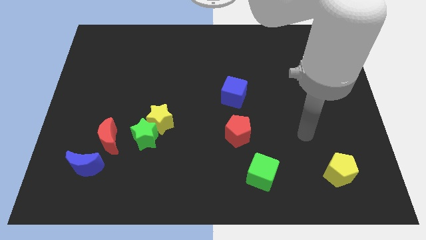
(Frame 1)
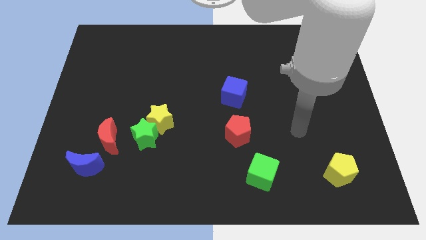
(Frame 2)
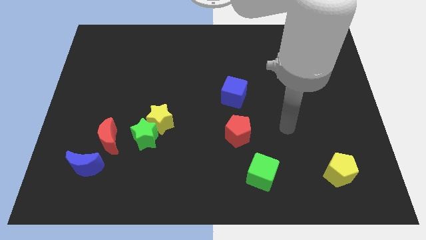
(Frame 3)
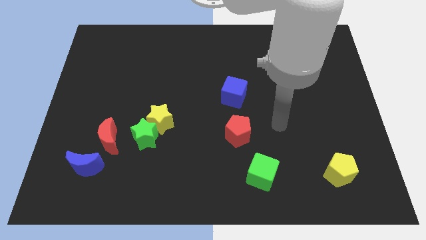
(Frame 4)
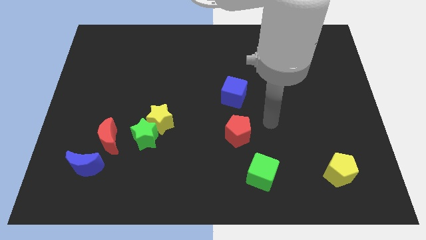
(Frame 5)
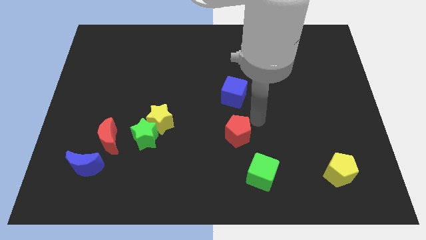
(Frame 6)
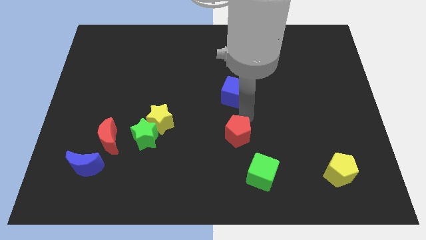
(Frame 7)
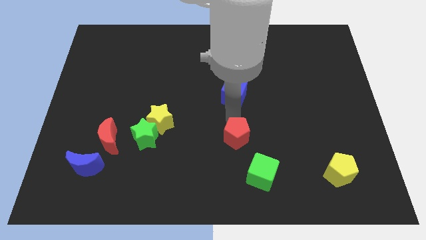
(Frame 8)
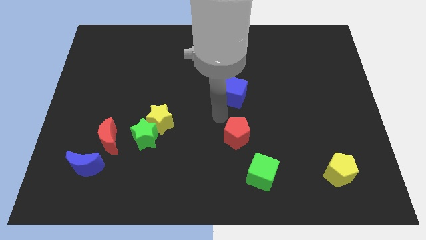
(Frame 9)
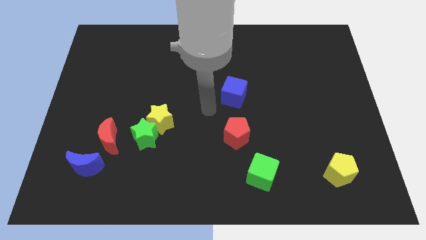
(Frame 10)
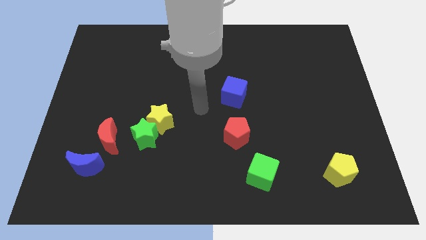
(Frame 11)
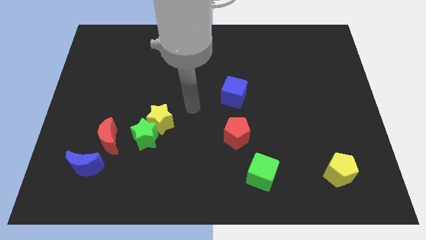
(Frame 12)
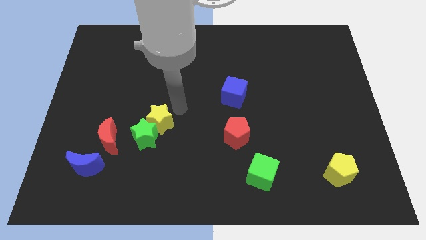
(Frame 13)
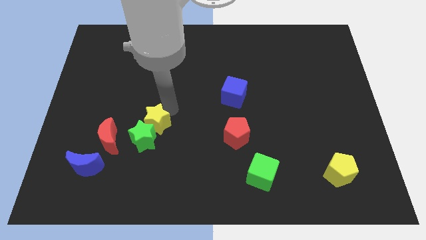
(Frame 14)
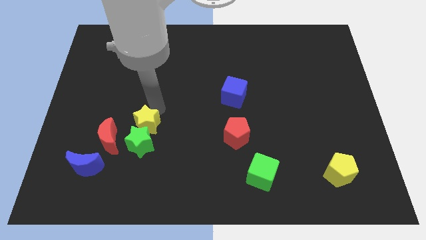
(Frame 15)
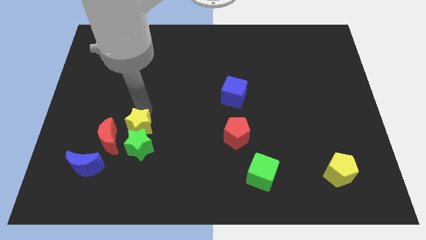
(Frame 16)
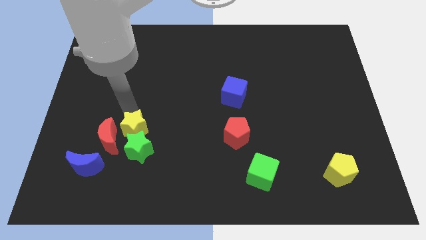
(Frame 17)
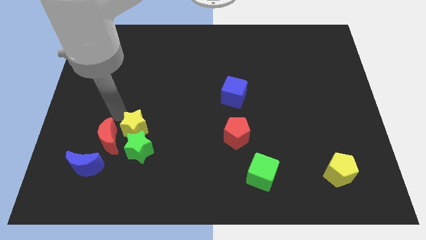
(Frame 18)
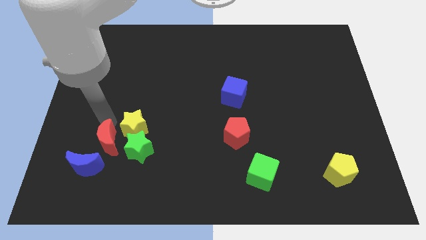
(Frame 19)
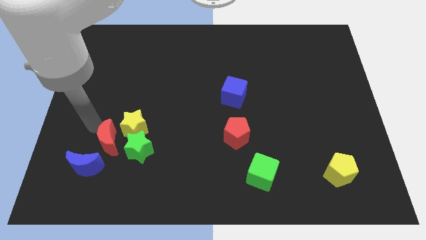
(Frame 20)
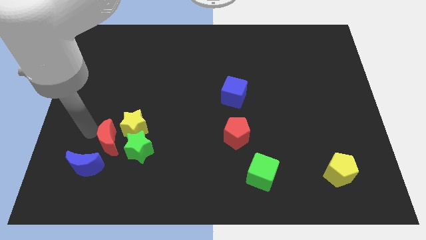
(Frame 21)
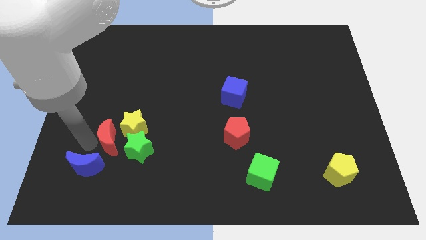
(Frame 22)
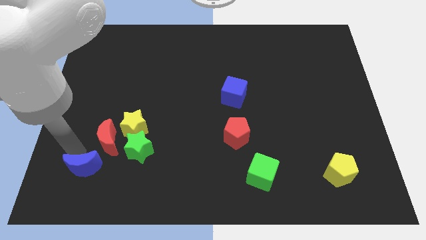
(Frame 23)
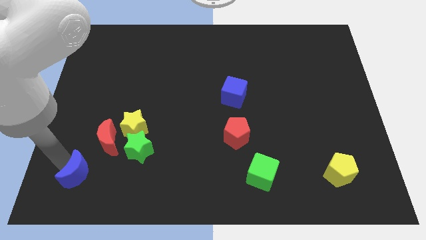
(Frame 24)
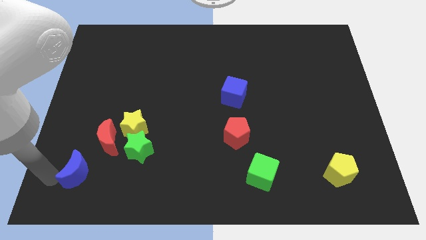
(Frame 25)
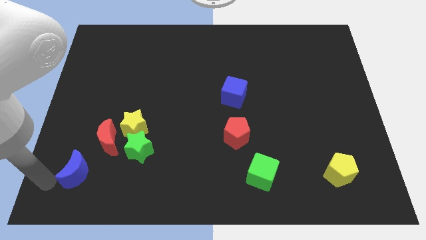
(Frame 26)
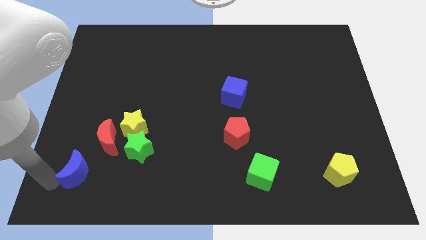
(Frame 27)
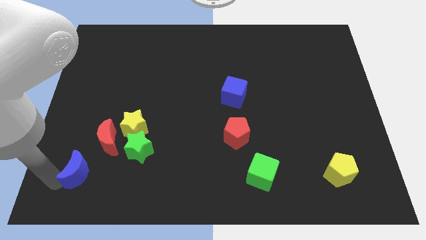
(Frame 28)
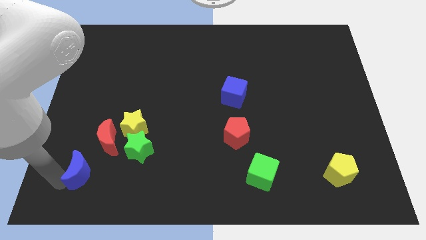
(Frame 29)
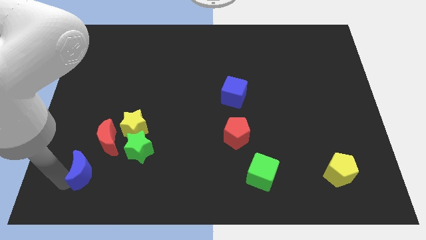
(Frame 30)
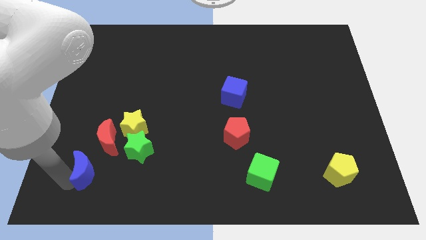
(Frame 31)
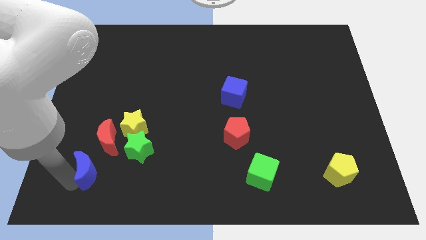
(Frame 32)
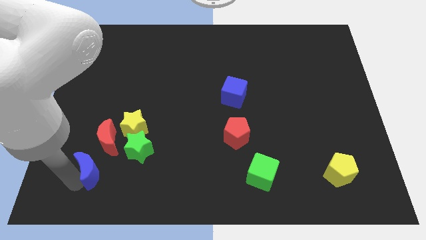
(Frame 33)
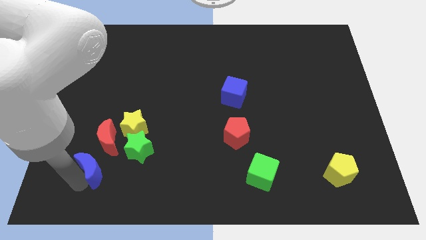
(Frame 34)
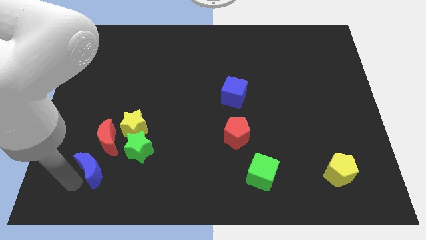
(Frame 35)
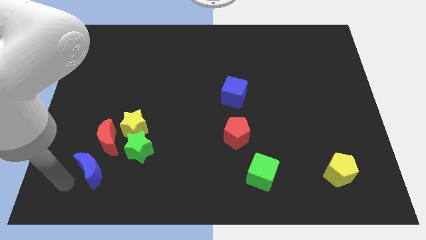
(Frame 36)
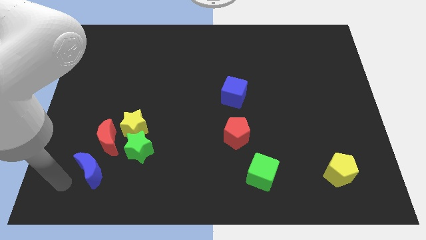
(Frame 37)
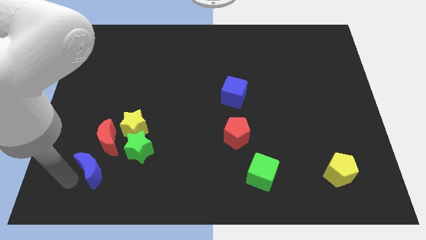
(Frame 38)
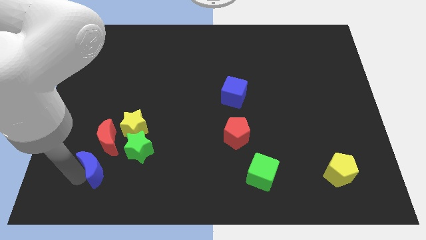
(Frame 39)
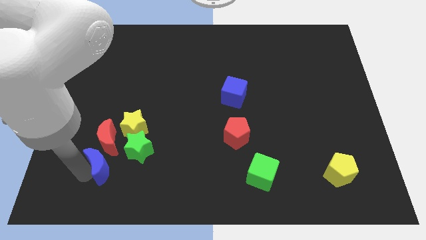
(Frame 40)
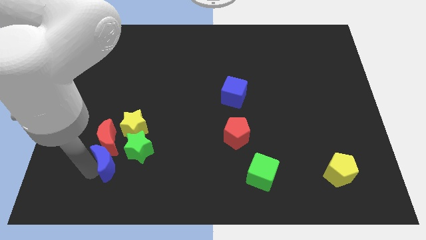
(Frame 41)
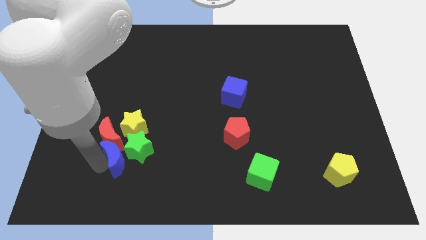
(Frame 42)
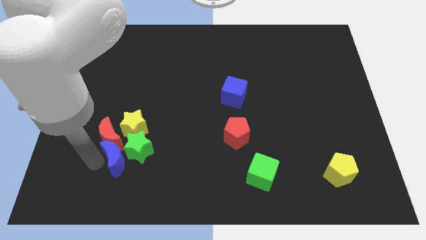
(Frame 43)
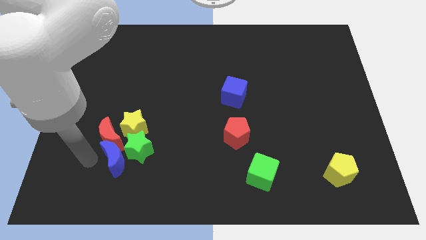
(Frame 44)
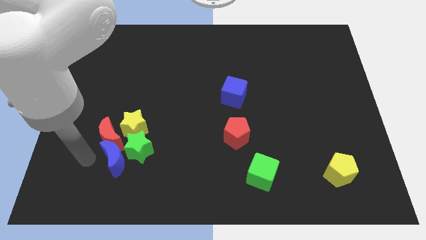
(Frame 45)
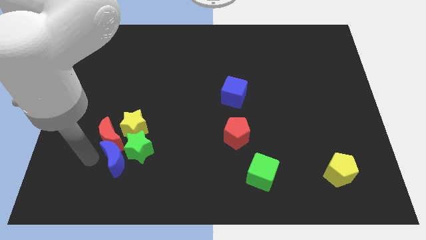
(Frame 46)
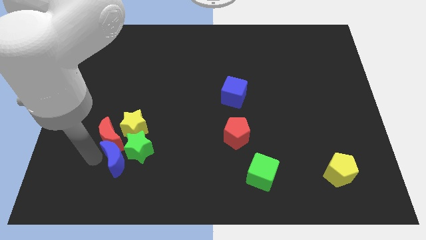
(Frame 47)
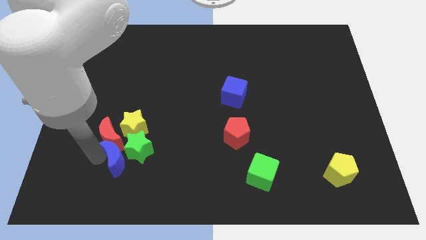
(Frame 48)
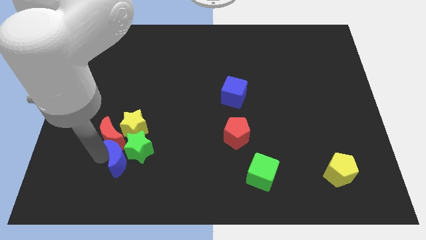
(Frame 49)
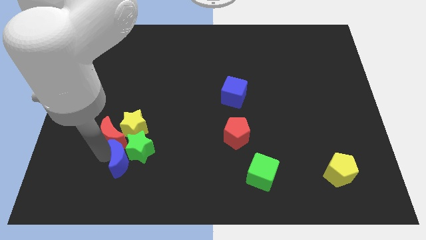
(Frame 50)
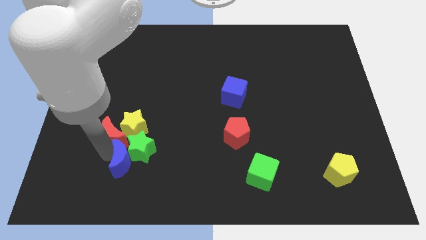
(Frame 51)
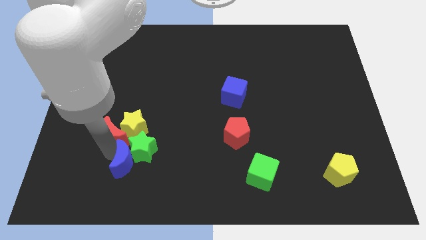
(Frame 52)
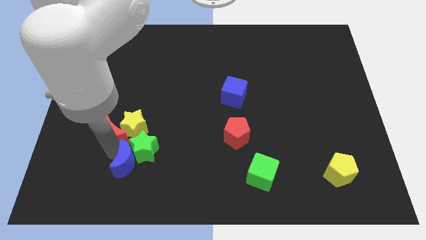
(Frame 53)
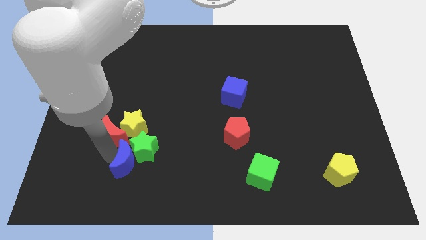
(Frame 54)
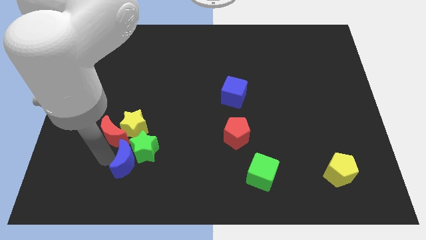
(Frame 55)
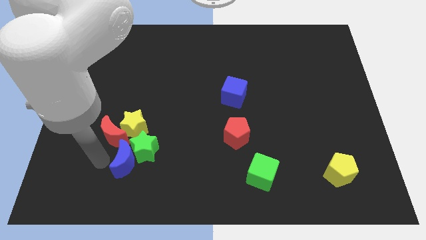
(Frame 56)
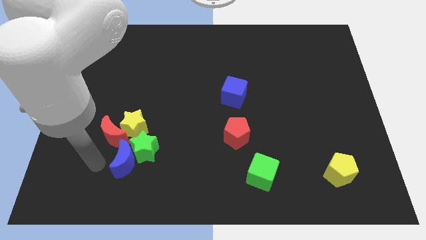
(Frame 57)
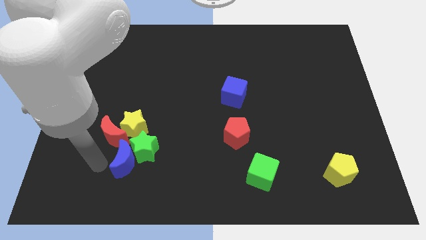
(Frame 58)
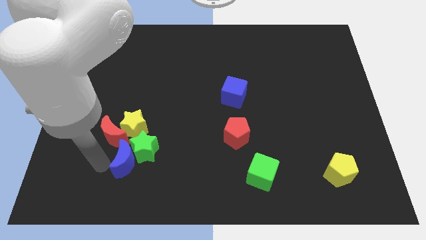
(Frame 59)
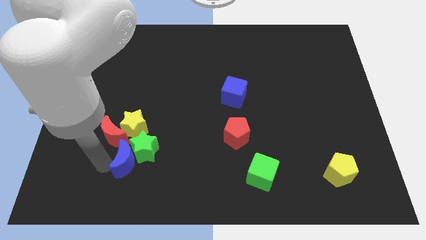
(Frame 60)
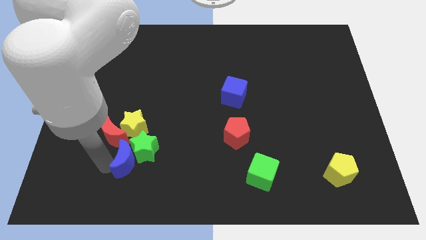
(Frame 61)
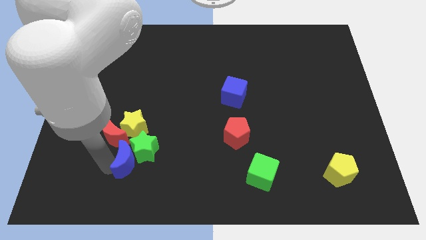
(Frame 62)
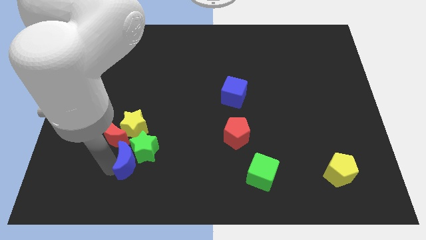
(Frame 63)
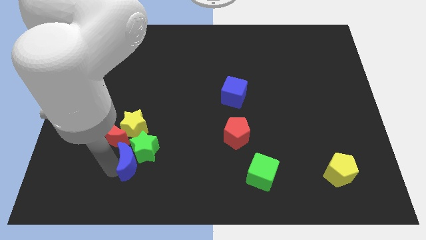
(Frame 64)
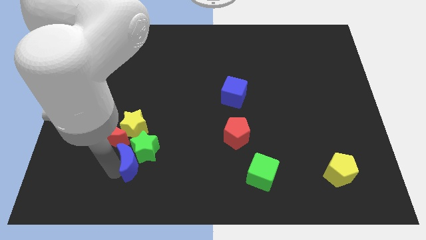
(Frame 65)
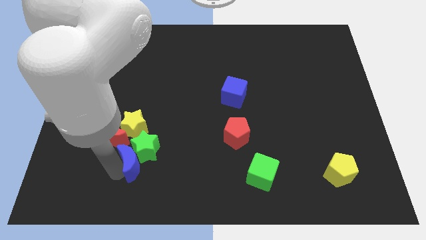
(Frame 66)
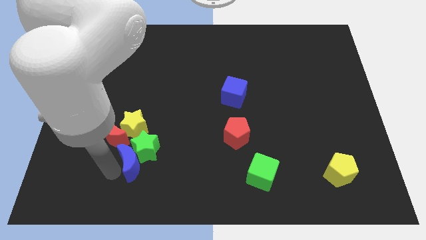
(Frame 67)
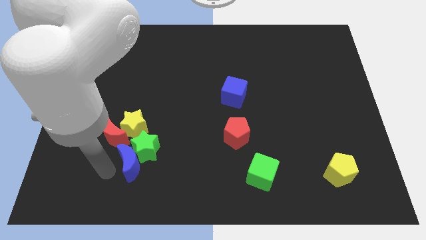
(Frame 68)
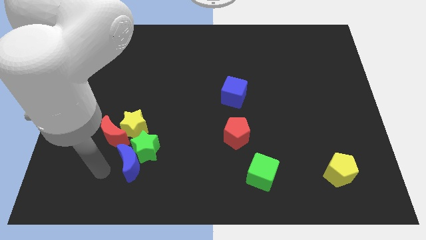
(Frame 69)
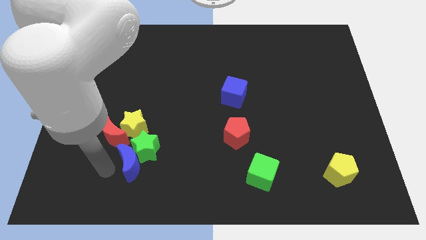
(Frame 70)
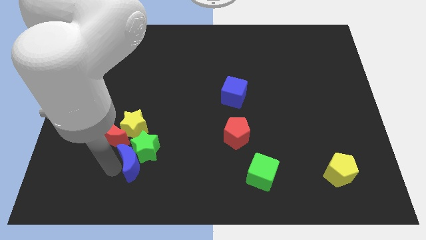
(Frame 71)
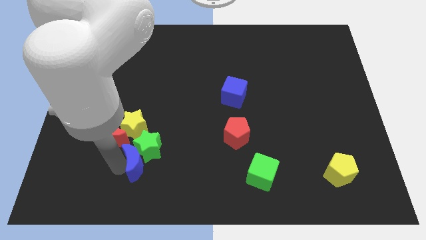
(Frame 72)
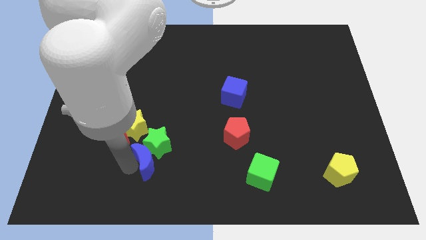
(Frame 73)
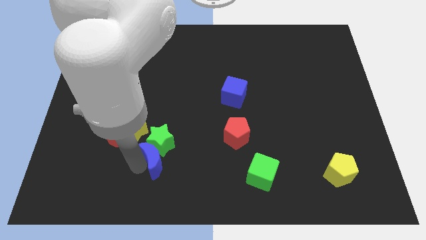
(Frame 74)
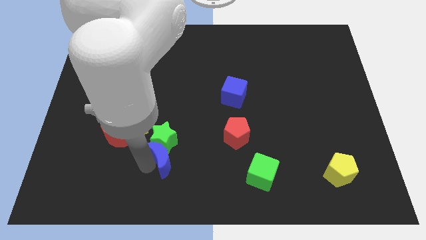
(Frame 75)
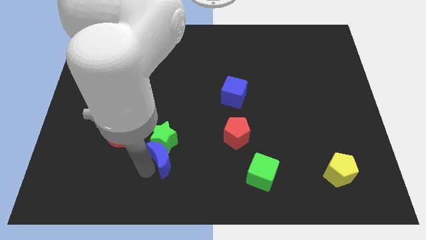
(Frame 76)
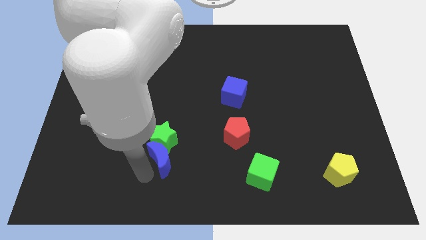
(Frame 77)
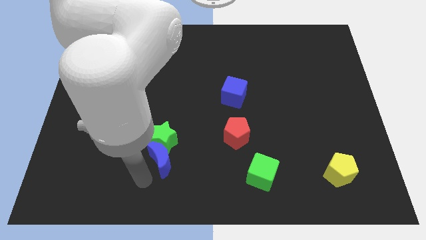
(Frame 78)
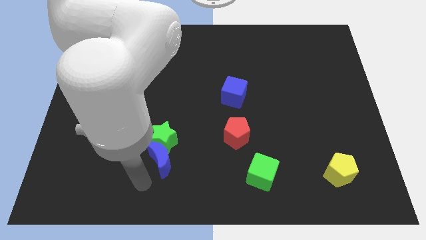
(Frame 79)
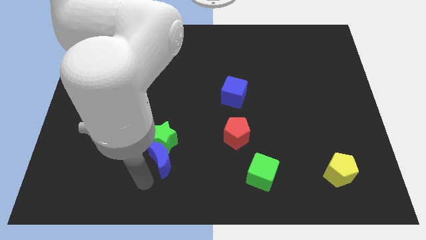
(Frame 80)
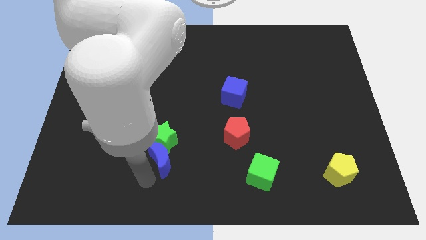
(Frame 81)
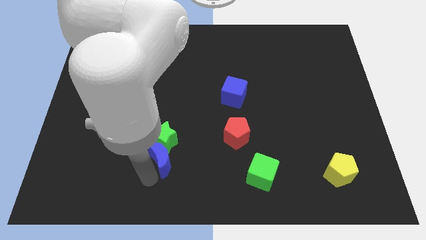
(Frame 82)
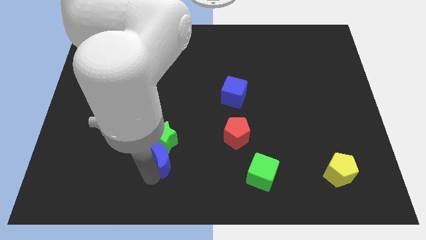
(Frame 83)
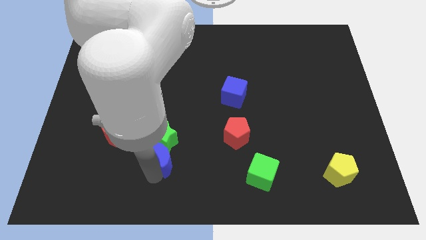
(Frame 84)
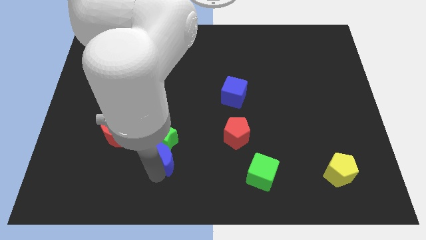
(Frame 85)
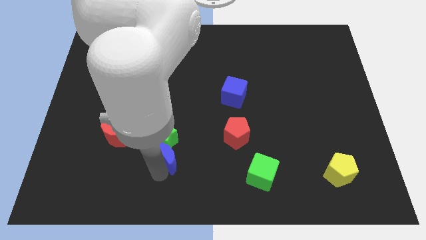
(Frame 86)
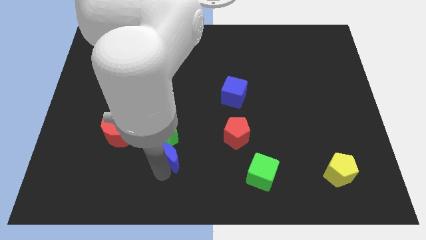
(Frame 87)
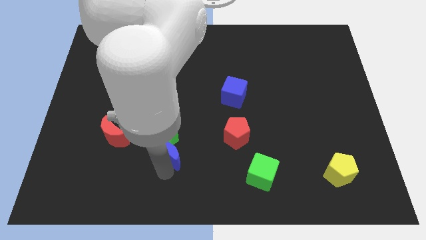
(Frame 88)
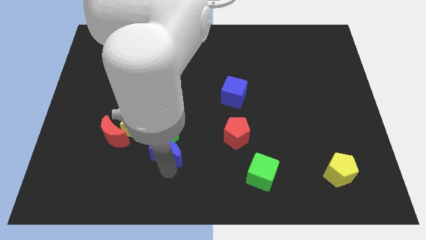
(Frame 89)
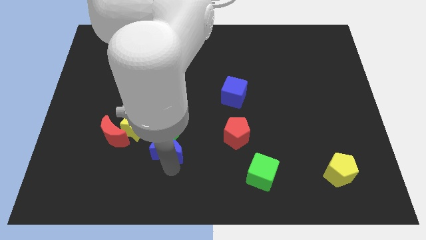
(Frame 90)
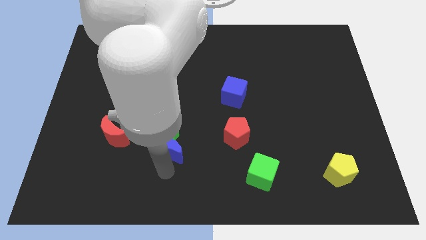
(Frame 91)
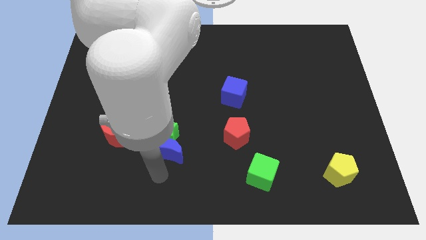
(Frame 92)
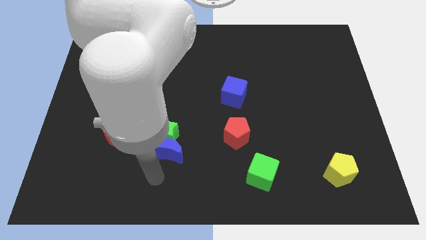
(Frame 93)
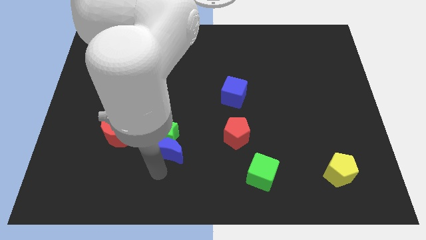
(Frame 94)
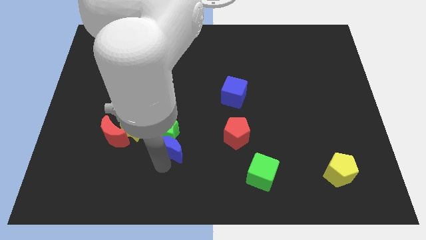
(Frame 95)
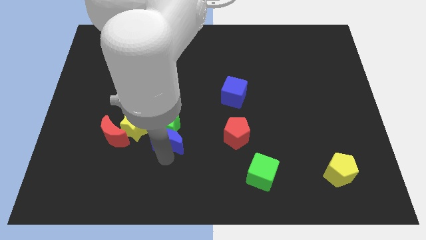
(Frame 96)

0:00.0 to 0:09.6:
slide the blue moon right of the yellow star
